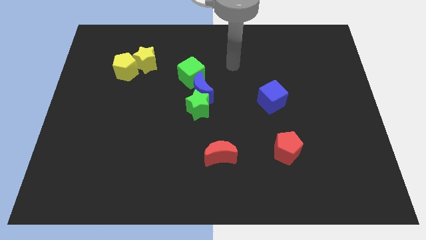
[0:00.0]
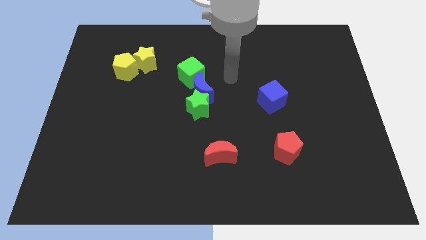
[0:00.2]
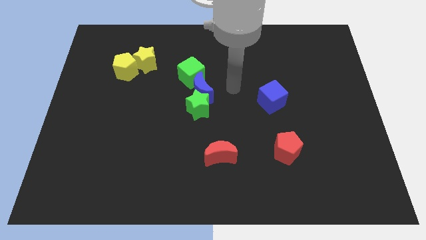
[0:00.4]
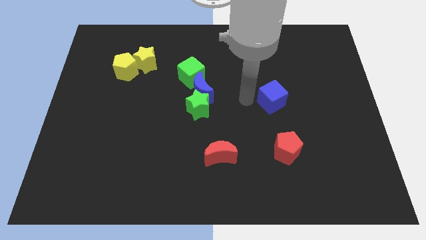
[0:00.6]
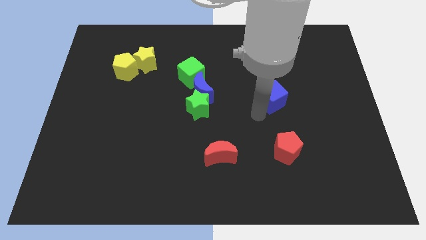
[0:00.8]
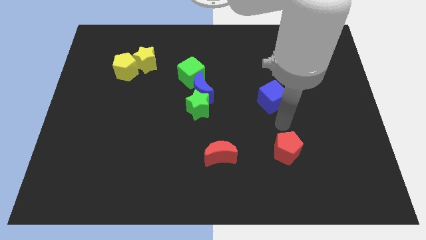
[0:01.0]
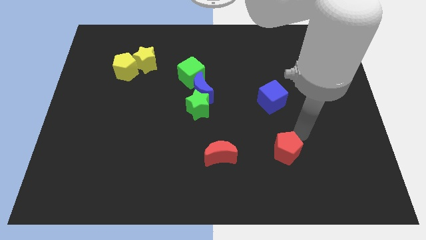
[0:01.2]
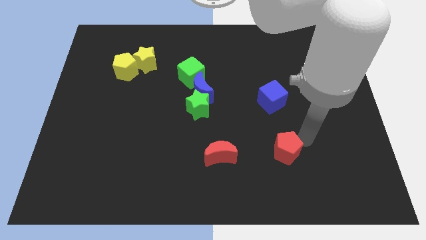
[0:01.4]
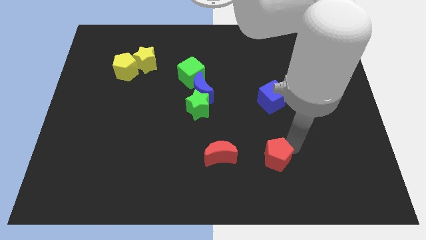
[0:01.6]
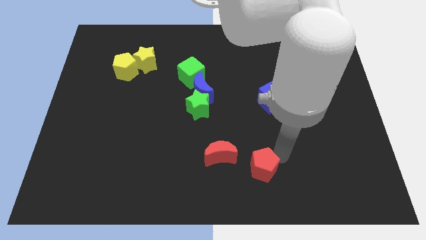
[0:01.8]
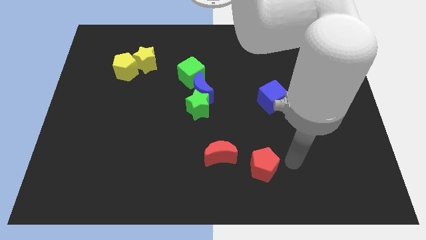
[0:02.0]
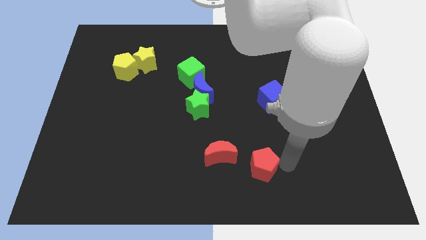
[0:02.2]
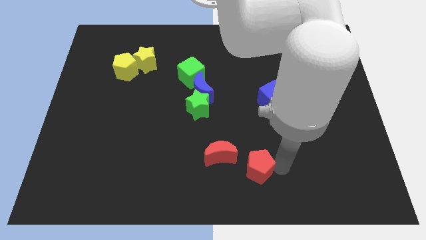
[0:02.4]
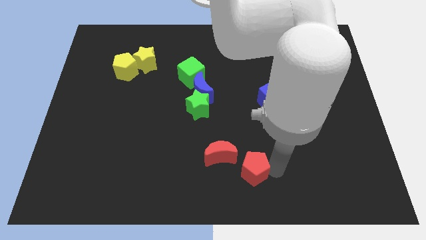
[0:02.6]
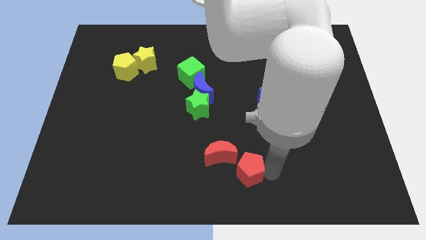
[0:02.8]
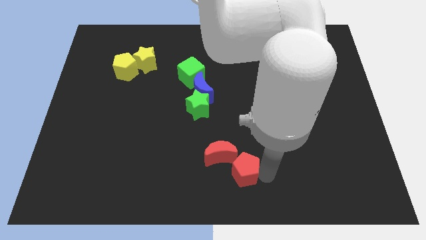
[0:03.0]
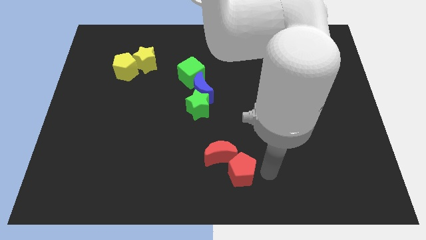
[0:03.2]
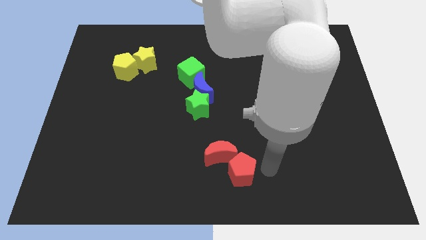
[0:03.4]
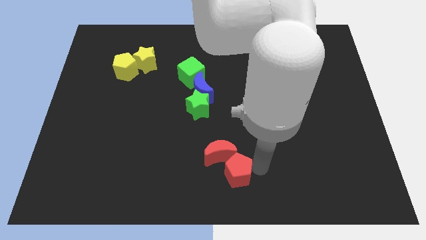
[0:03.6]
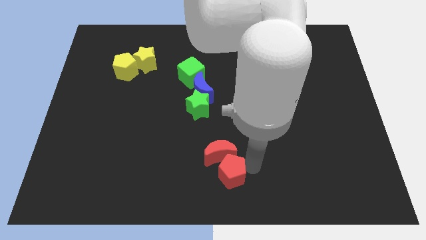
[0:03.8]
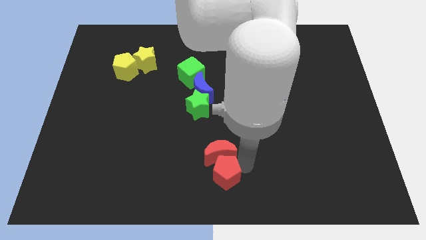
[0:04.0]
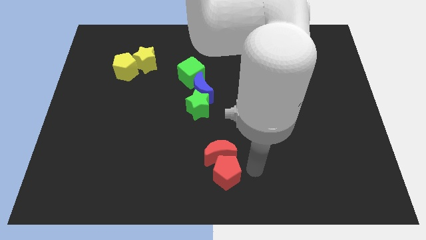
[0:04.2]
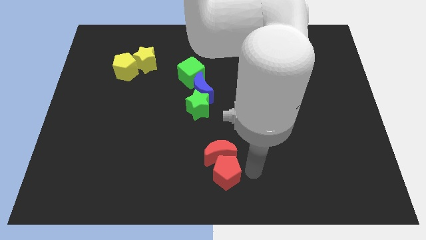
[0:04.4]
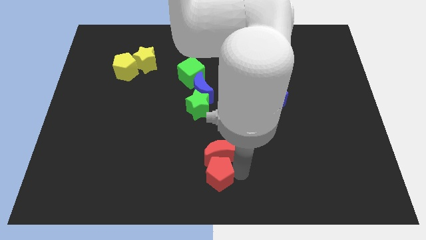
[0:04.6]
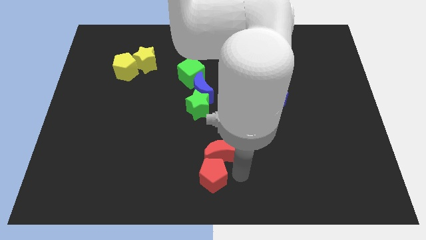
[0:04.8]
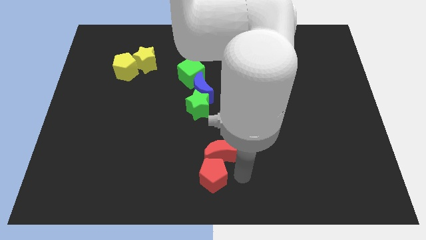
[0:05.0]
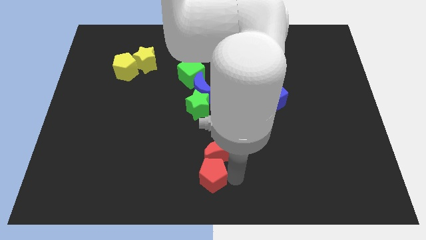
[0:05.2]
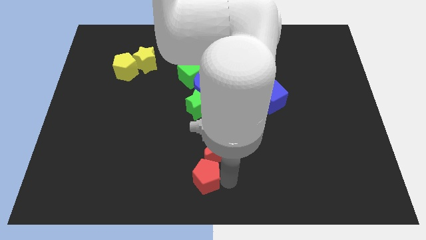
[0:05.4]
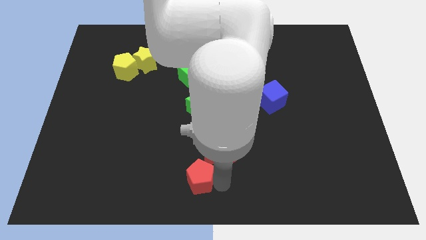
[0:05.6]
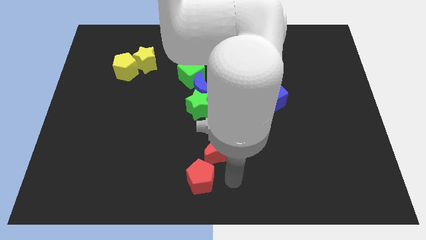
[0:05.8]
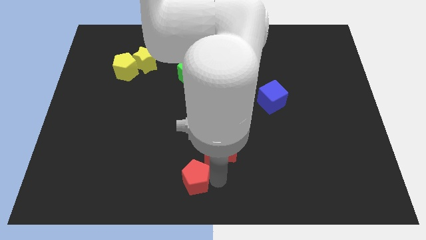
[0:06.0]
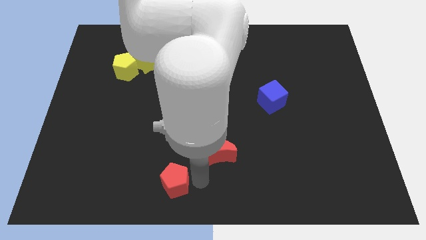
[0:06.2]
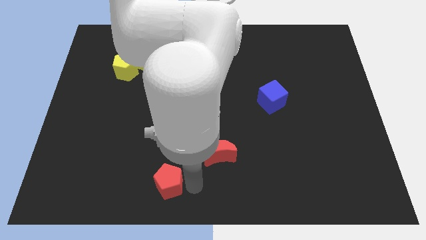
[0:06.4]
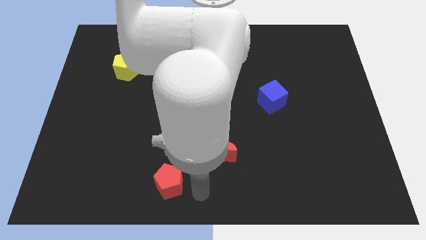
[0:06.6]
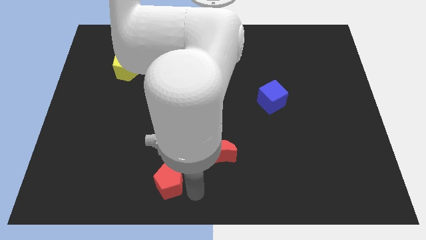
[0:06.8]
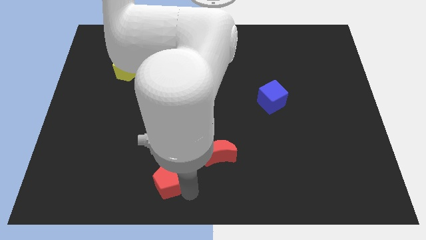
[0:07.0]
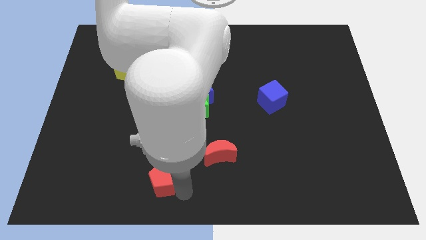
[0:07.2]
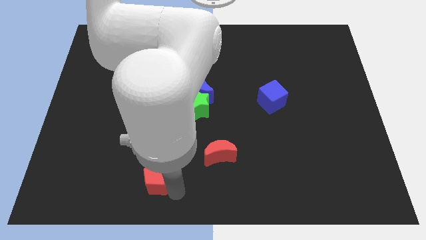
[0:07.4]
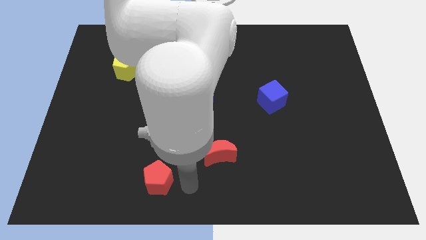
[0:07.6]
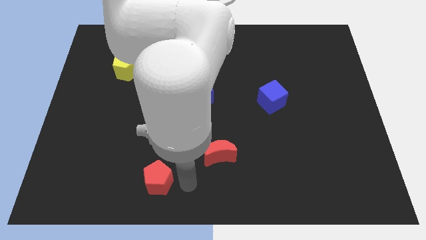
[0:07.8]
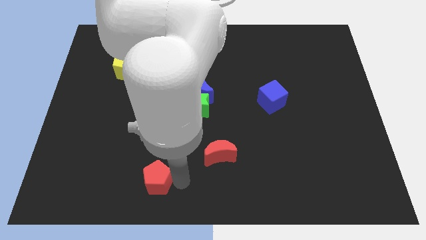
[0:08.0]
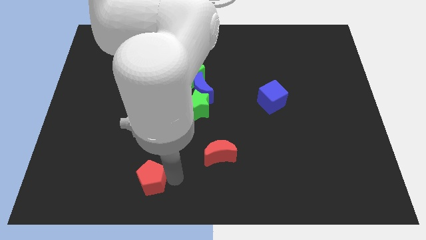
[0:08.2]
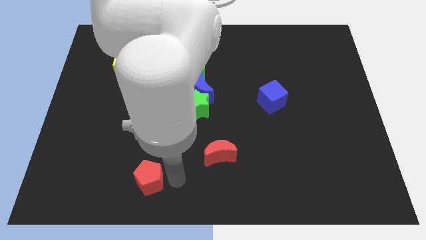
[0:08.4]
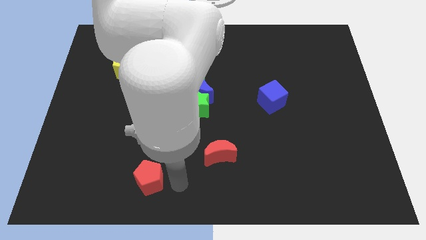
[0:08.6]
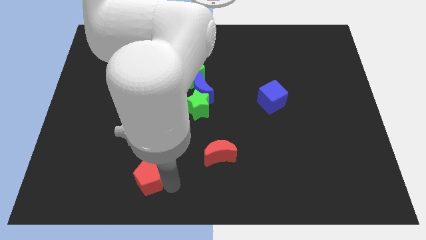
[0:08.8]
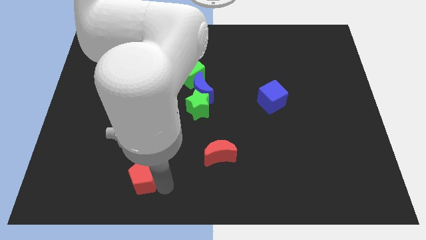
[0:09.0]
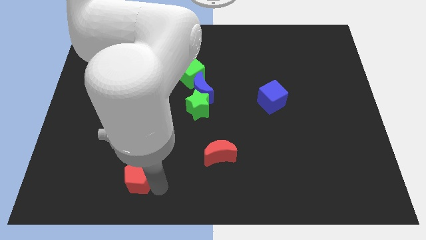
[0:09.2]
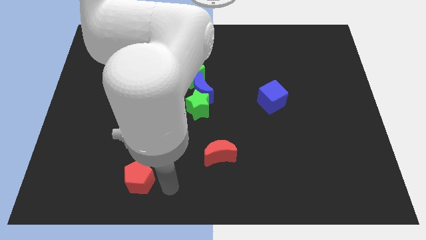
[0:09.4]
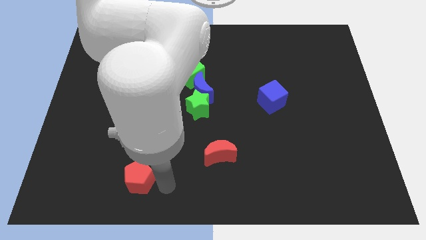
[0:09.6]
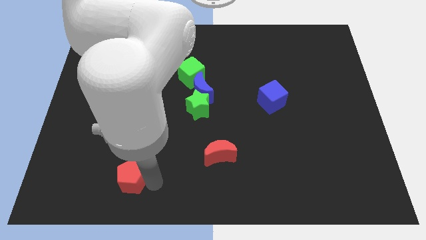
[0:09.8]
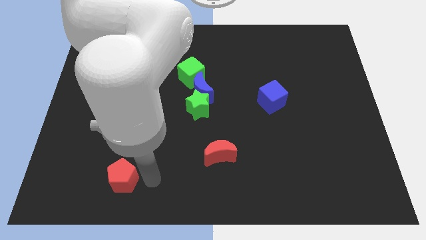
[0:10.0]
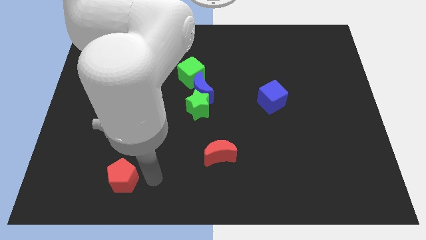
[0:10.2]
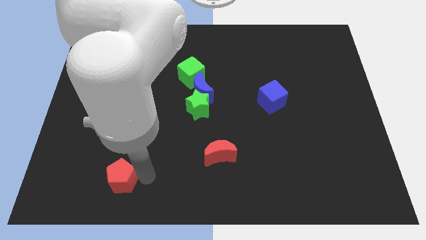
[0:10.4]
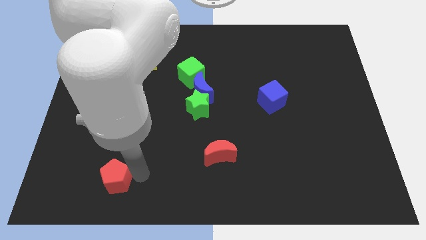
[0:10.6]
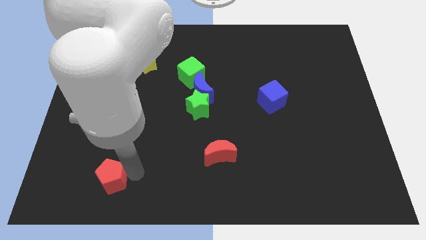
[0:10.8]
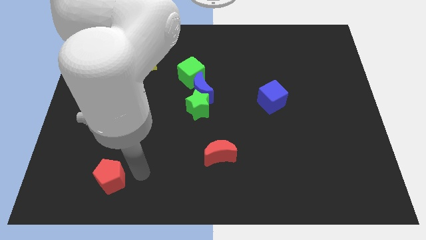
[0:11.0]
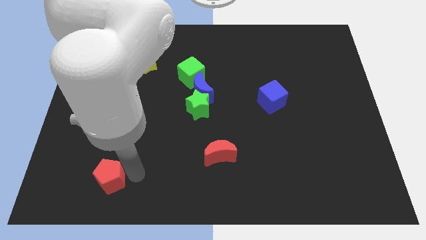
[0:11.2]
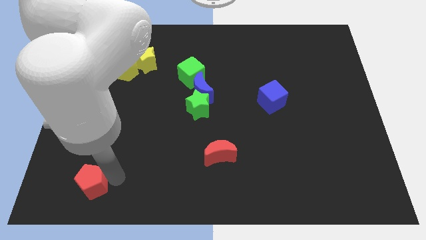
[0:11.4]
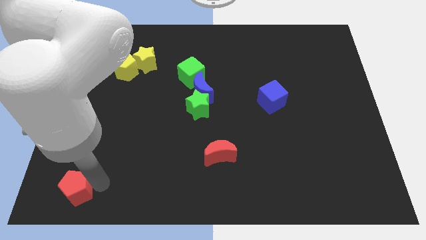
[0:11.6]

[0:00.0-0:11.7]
put the red pentagon to the bottom left

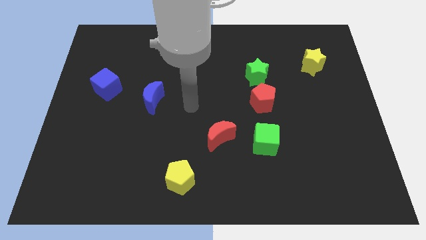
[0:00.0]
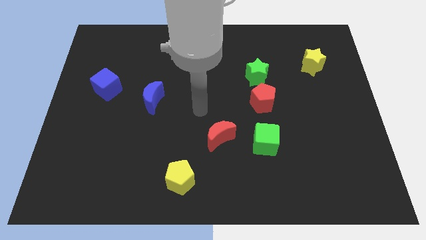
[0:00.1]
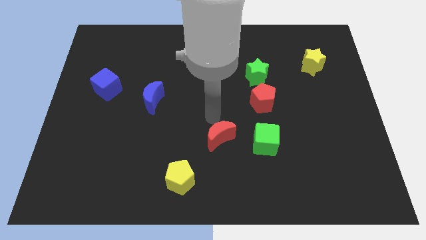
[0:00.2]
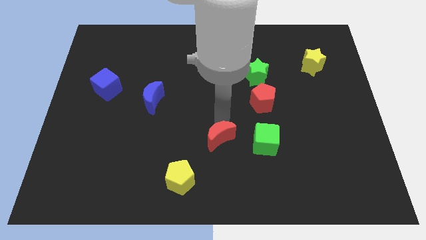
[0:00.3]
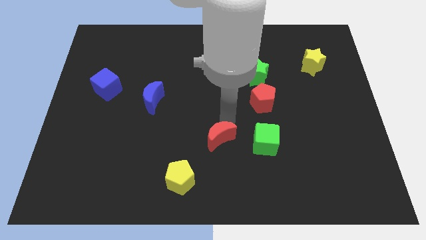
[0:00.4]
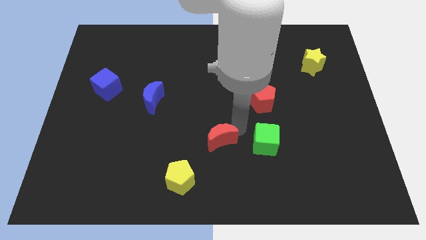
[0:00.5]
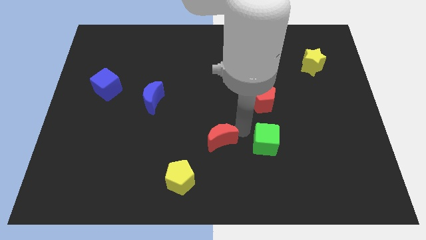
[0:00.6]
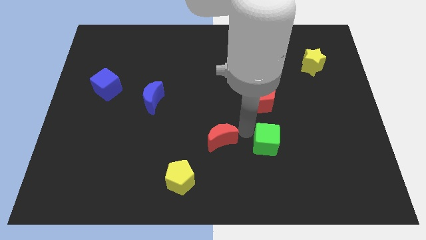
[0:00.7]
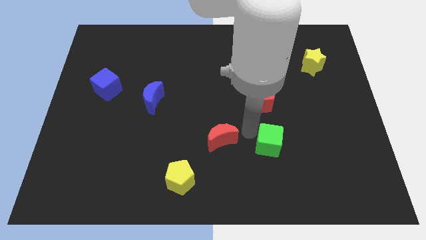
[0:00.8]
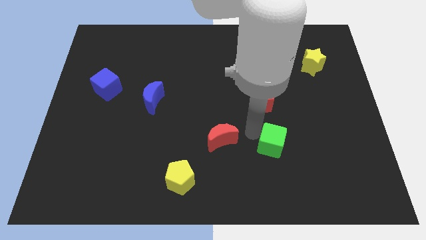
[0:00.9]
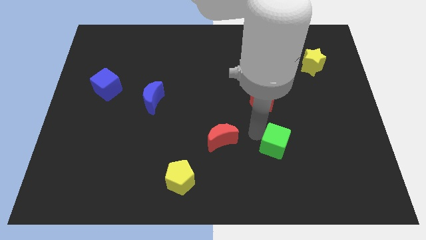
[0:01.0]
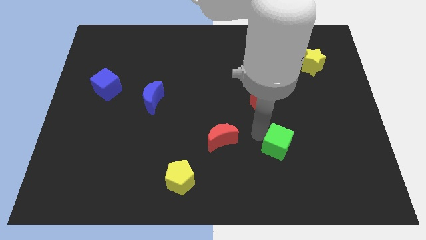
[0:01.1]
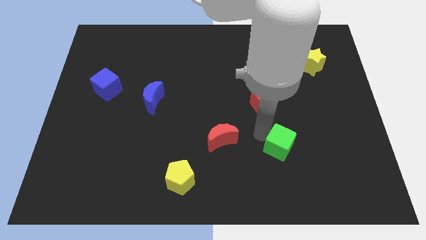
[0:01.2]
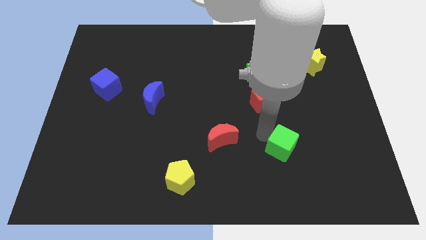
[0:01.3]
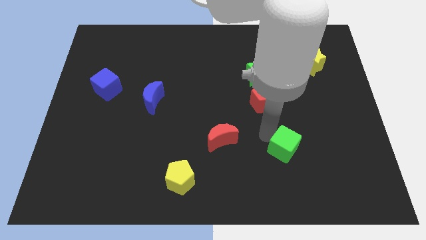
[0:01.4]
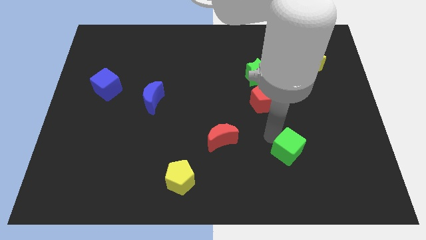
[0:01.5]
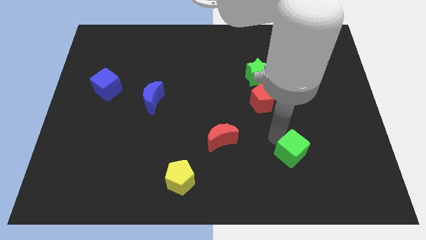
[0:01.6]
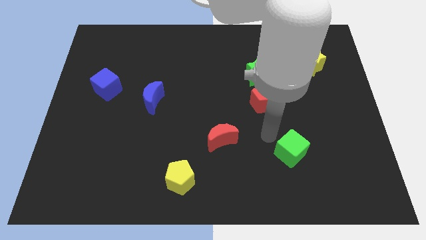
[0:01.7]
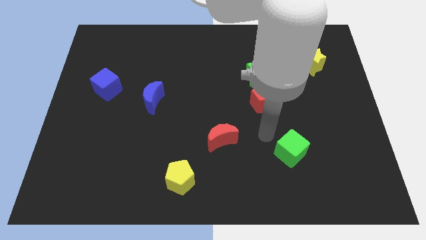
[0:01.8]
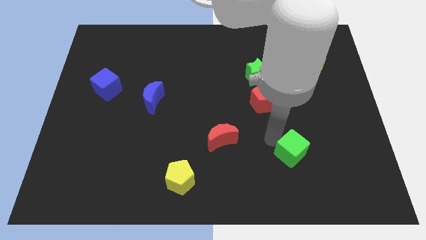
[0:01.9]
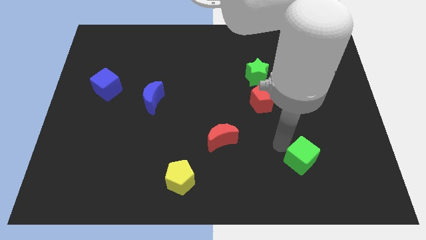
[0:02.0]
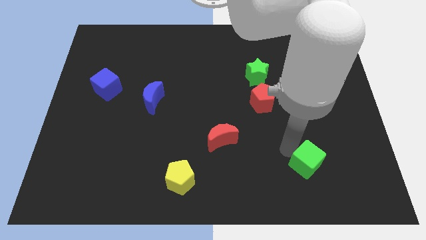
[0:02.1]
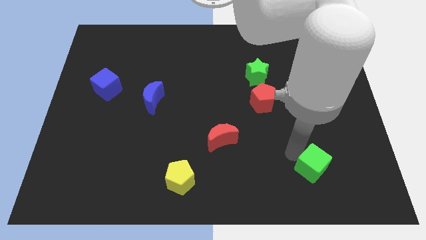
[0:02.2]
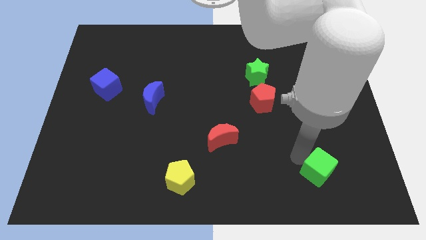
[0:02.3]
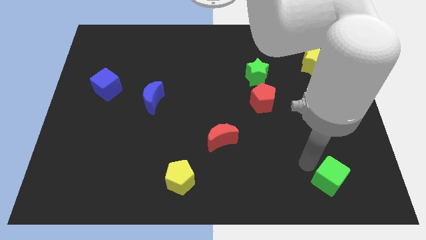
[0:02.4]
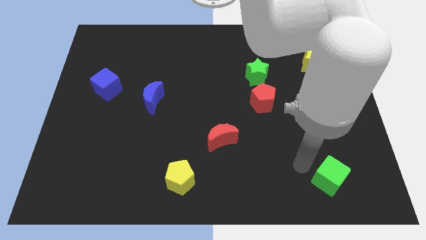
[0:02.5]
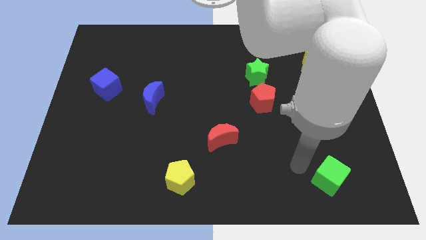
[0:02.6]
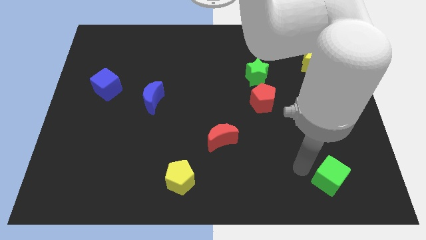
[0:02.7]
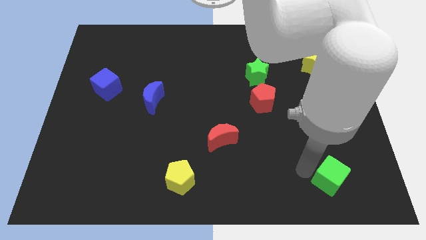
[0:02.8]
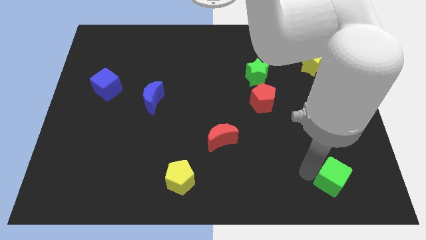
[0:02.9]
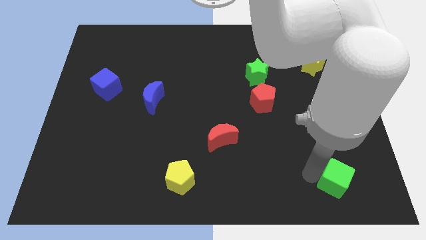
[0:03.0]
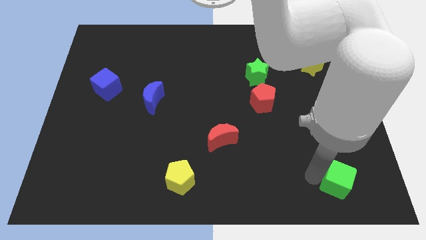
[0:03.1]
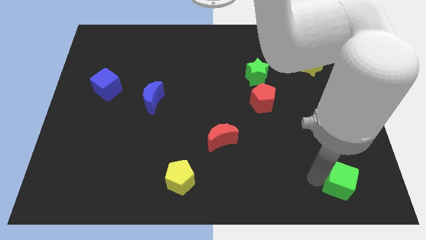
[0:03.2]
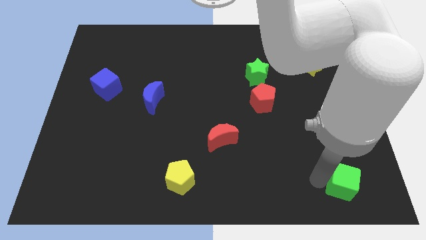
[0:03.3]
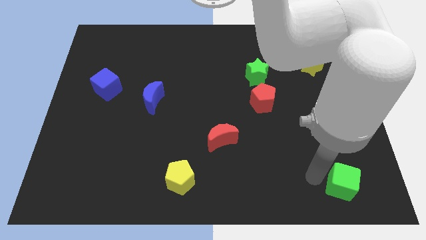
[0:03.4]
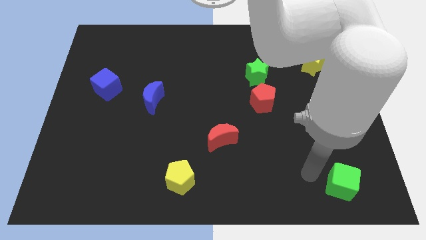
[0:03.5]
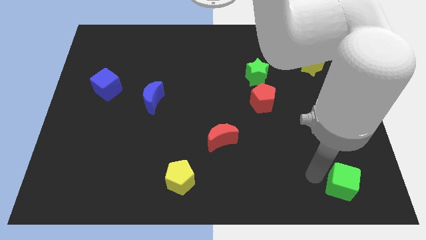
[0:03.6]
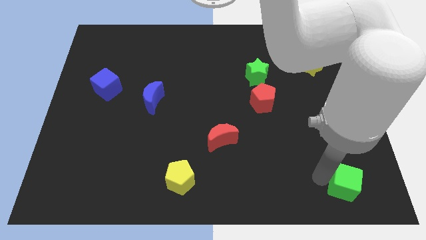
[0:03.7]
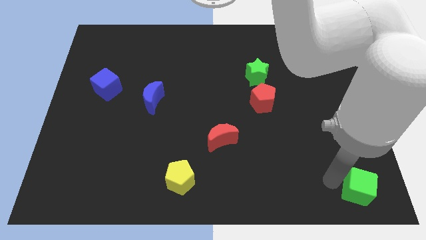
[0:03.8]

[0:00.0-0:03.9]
slide the green cube to the bottom right corner
